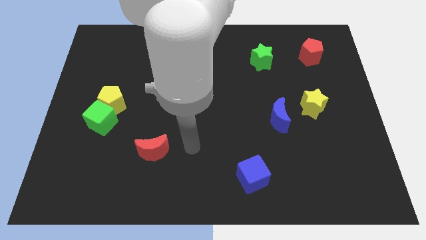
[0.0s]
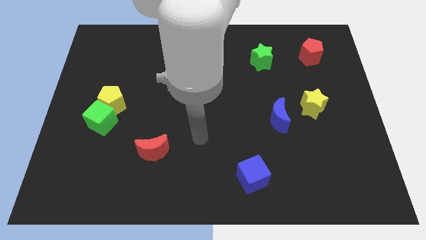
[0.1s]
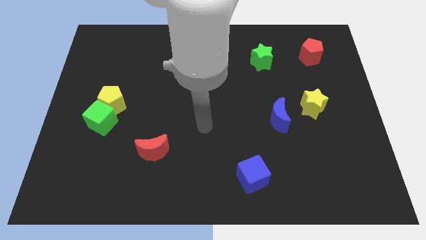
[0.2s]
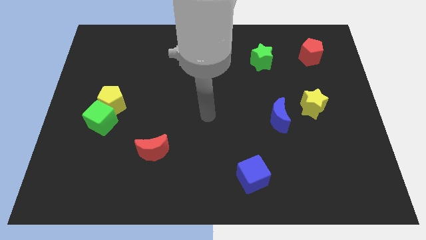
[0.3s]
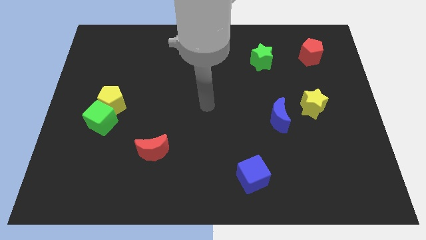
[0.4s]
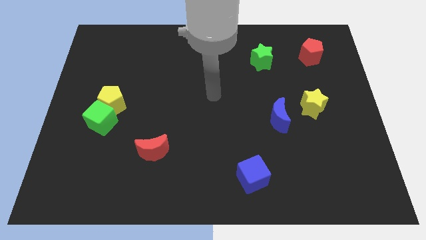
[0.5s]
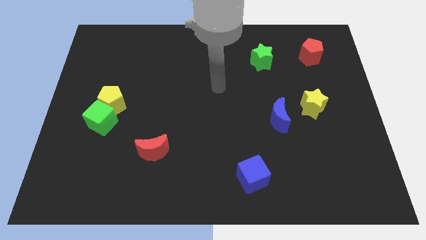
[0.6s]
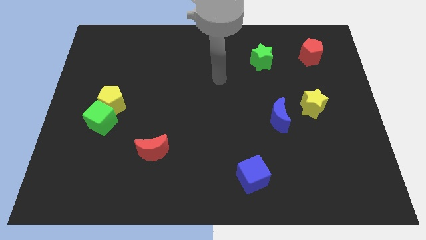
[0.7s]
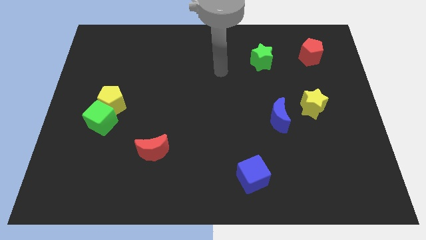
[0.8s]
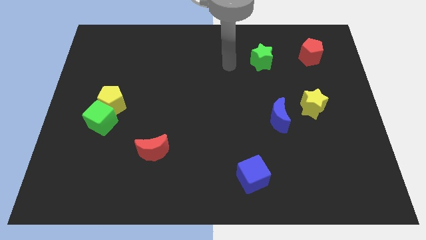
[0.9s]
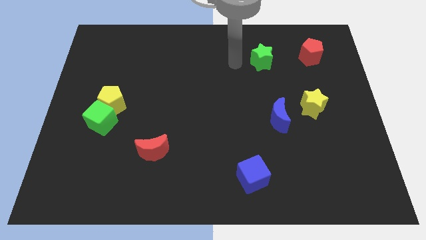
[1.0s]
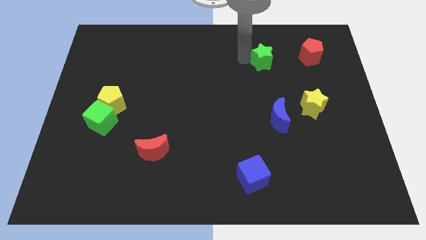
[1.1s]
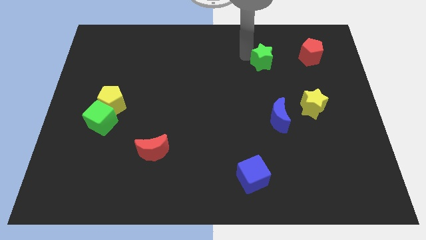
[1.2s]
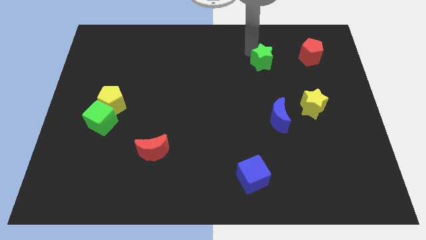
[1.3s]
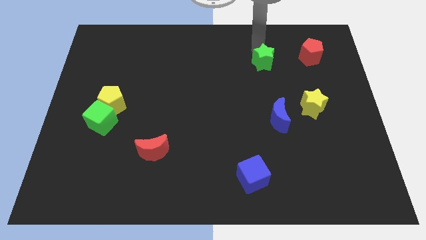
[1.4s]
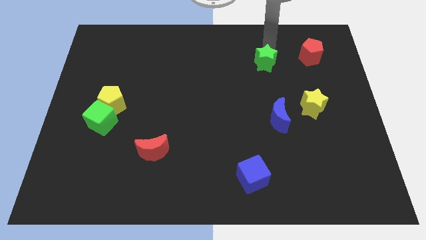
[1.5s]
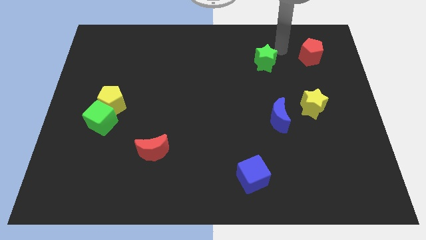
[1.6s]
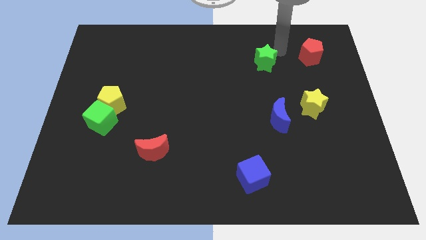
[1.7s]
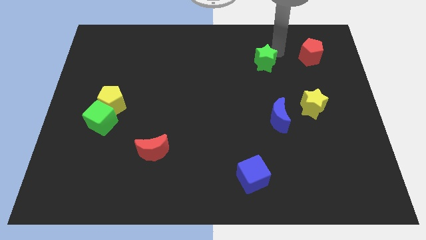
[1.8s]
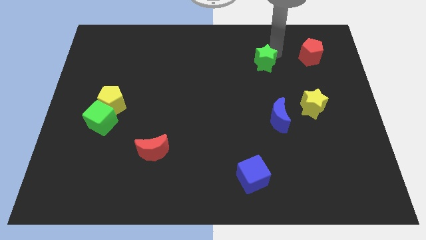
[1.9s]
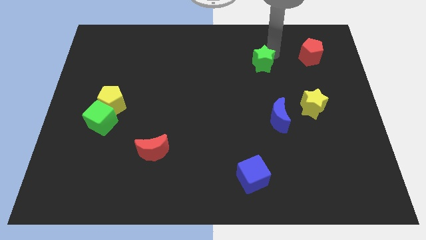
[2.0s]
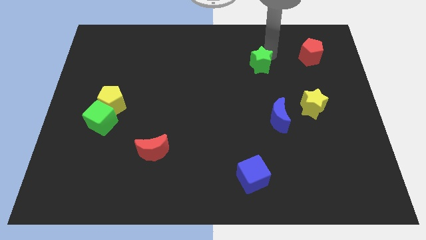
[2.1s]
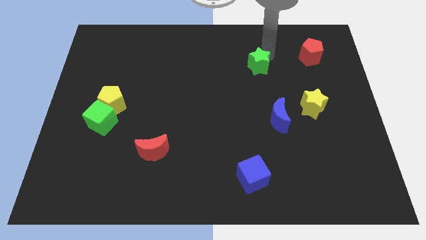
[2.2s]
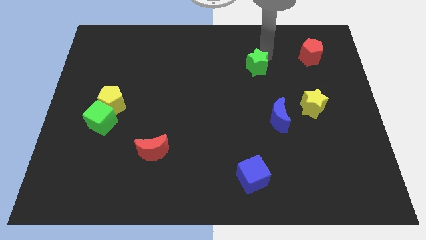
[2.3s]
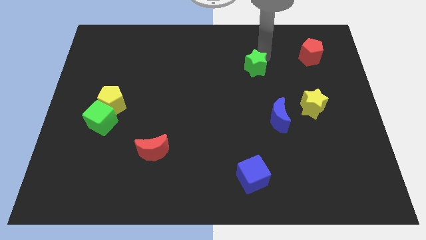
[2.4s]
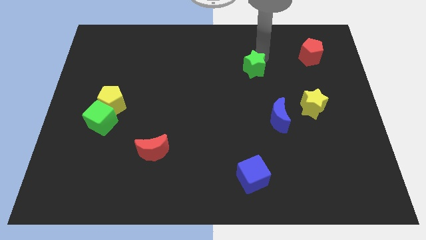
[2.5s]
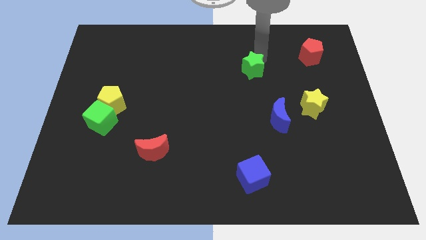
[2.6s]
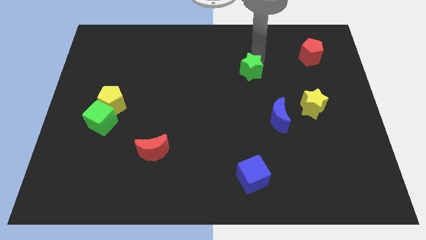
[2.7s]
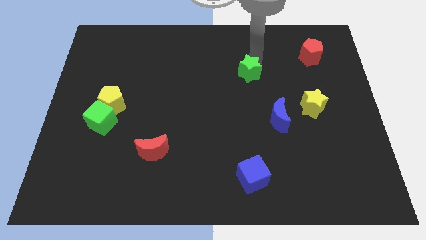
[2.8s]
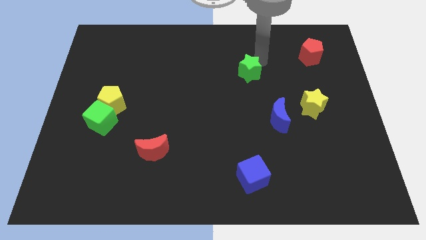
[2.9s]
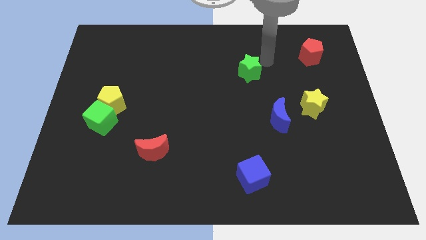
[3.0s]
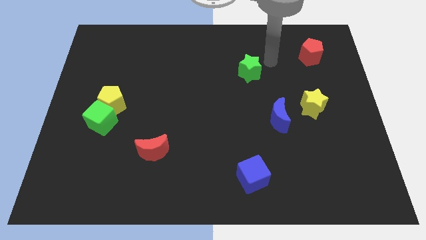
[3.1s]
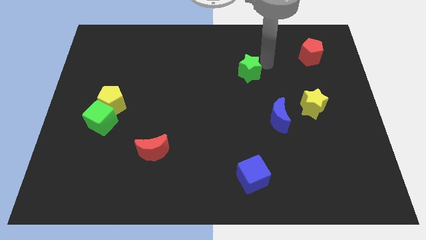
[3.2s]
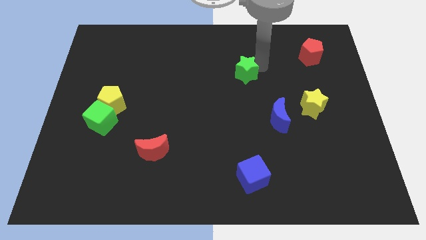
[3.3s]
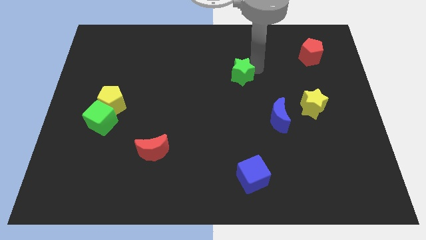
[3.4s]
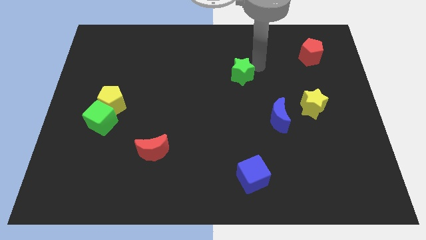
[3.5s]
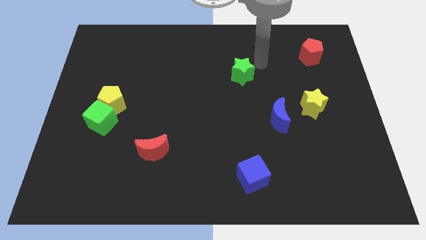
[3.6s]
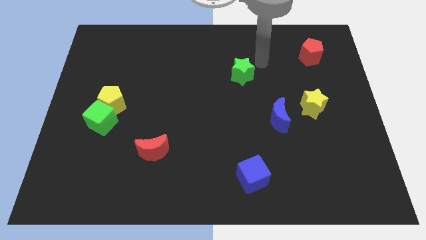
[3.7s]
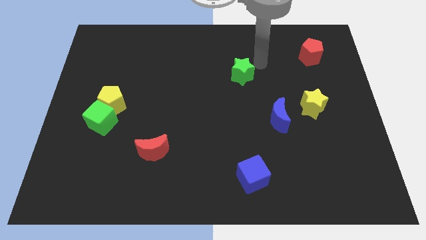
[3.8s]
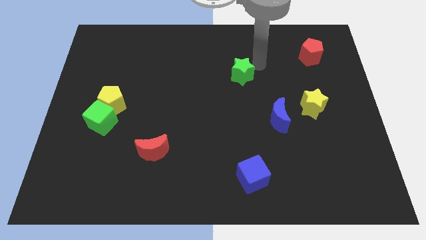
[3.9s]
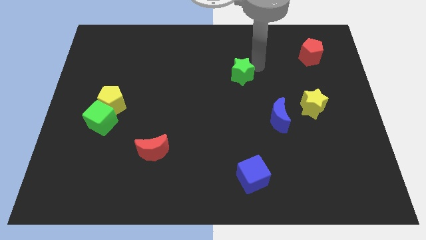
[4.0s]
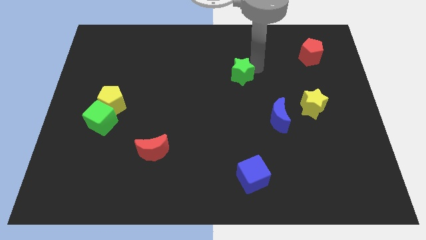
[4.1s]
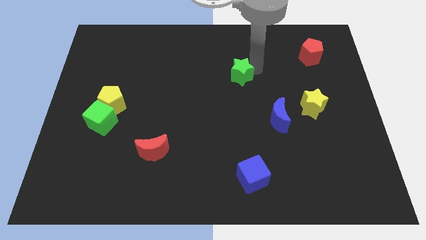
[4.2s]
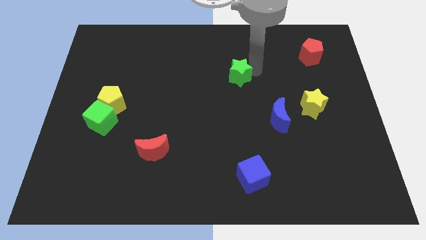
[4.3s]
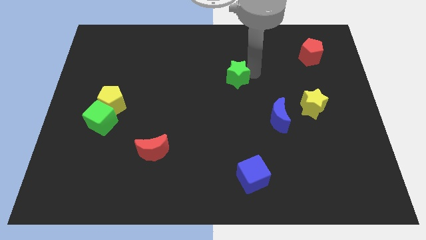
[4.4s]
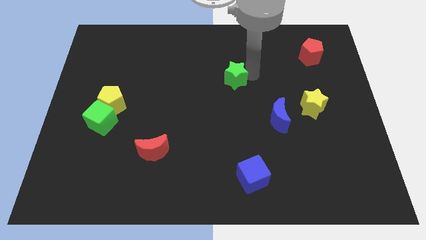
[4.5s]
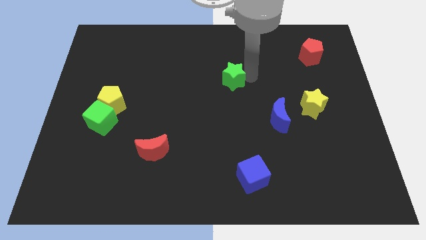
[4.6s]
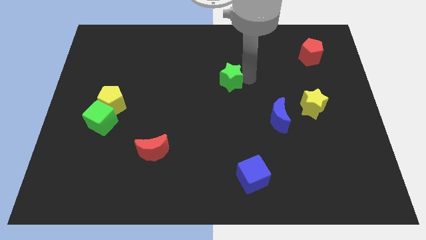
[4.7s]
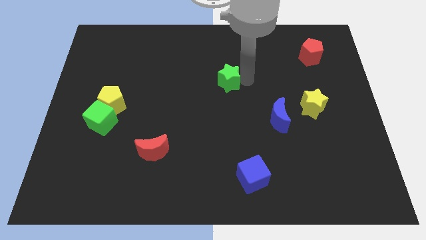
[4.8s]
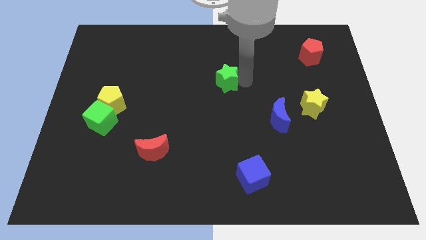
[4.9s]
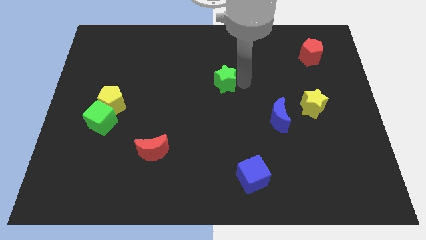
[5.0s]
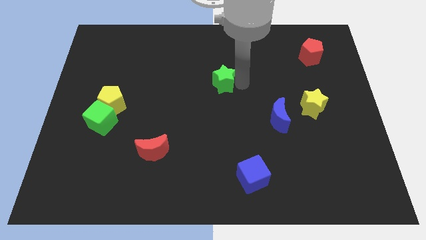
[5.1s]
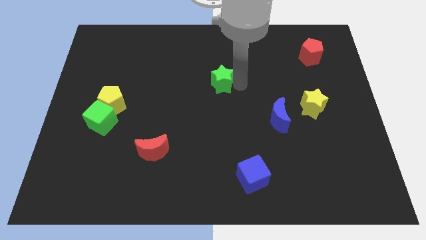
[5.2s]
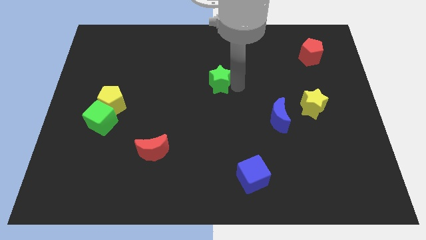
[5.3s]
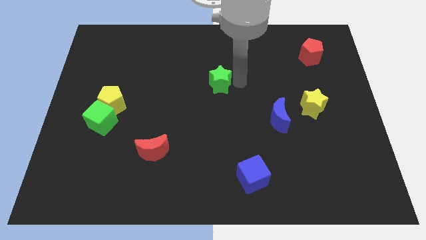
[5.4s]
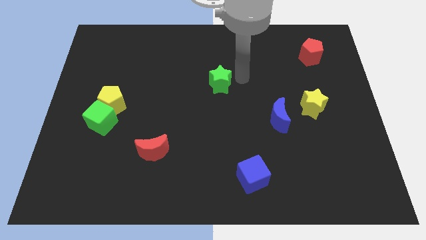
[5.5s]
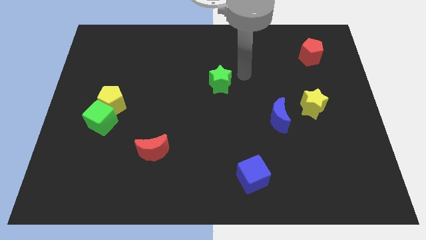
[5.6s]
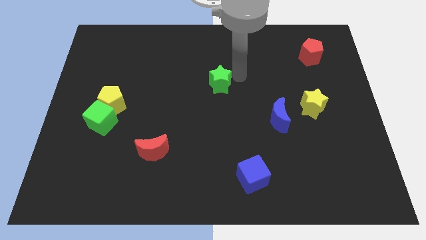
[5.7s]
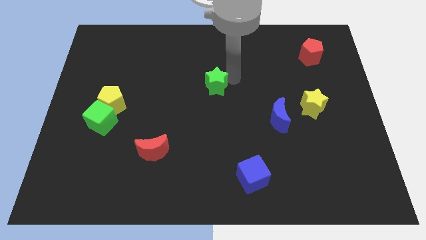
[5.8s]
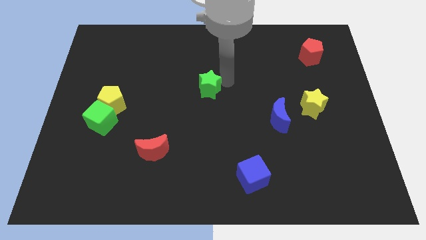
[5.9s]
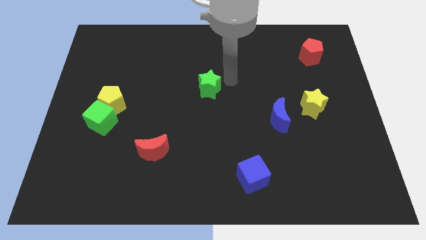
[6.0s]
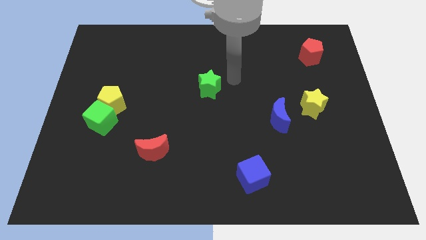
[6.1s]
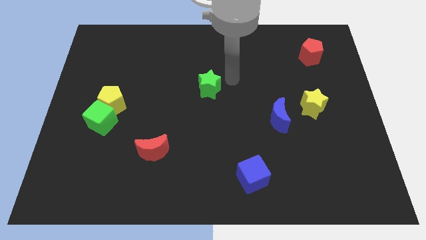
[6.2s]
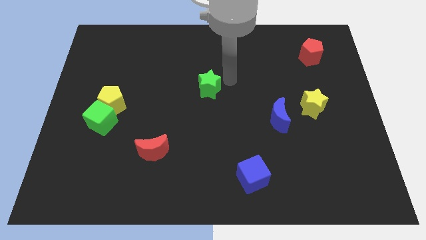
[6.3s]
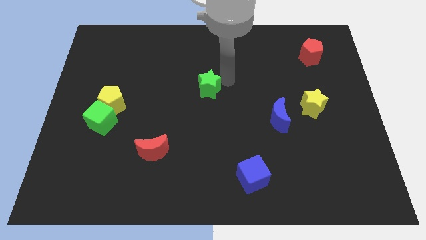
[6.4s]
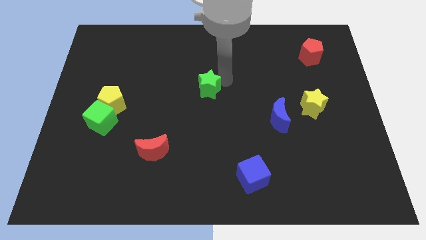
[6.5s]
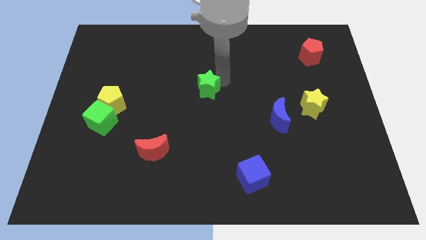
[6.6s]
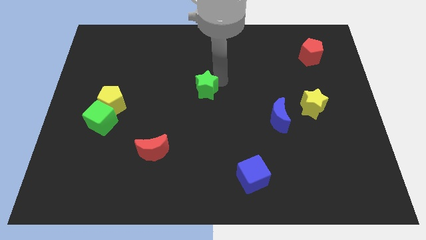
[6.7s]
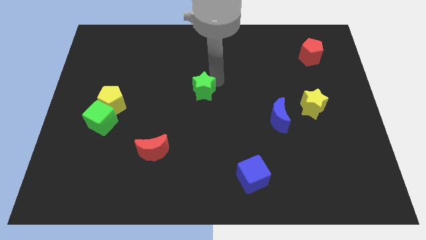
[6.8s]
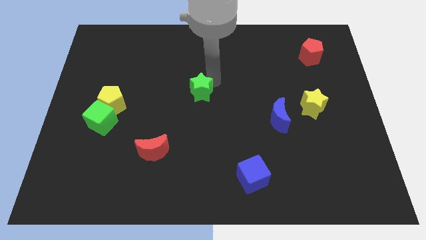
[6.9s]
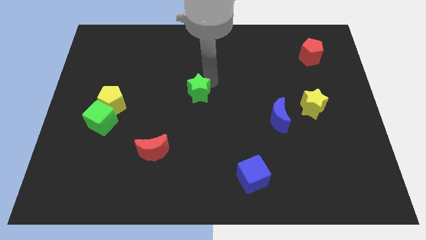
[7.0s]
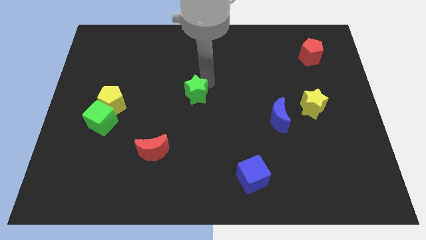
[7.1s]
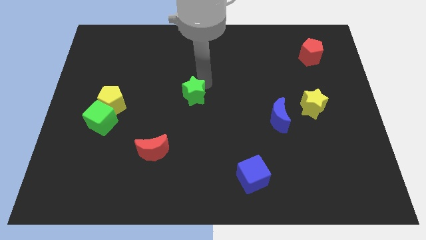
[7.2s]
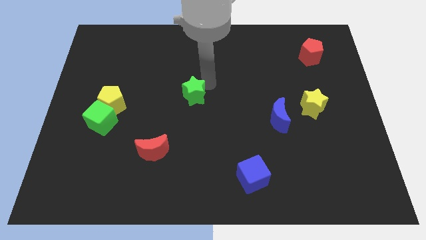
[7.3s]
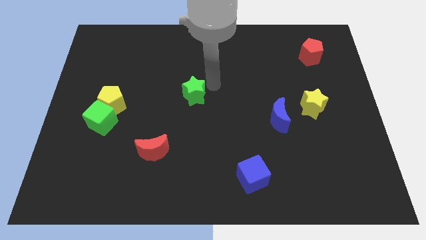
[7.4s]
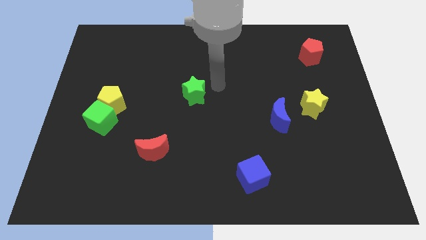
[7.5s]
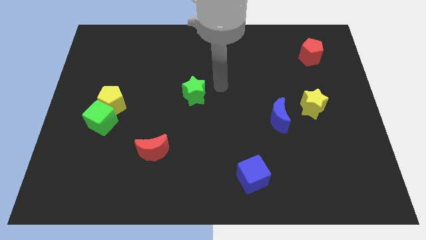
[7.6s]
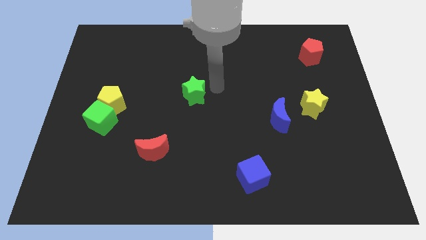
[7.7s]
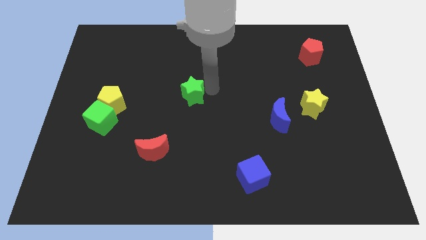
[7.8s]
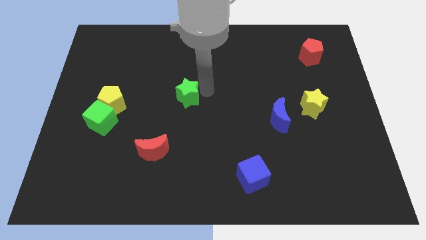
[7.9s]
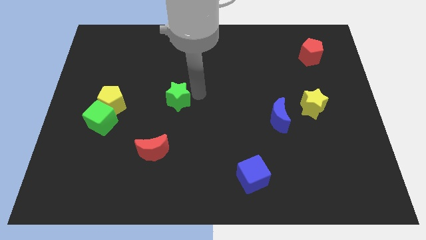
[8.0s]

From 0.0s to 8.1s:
put the green star to the right of the yellow pentagon
